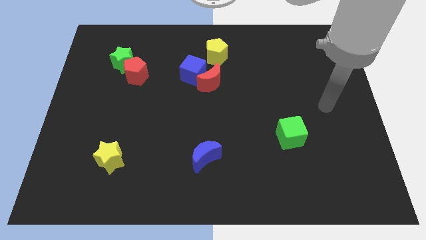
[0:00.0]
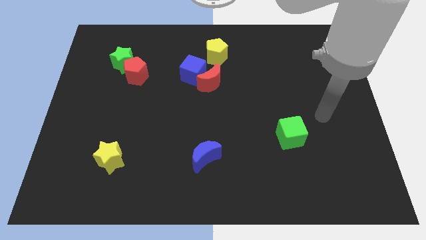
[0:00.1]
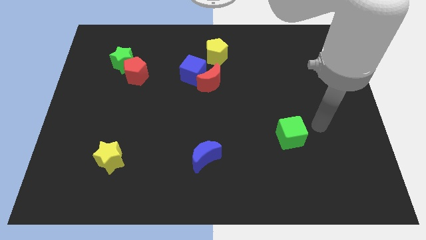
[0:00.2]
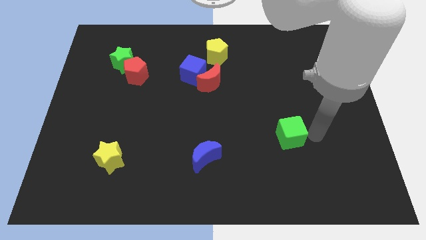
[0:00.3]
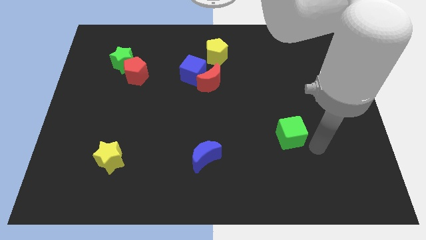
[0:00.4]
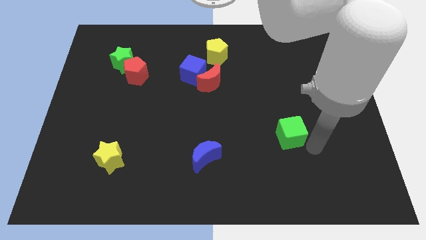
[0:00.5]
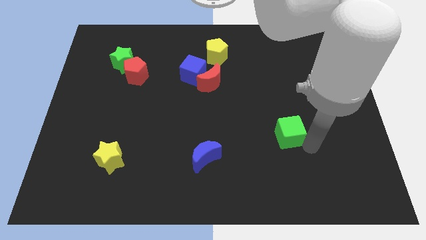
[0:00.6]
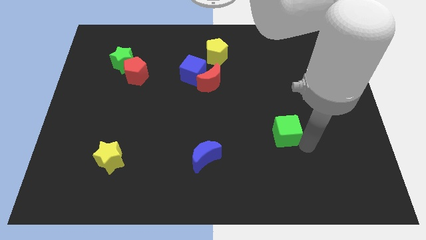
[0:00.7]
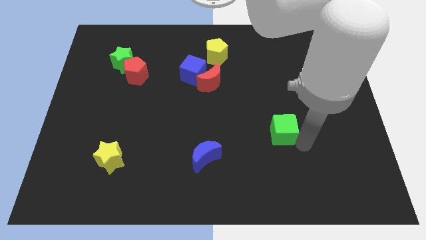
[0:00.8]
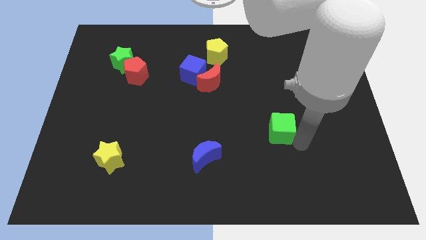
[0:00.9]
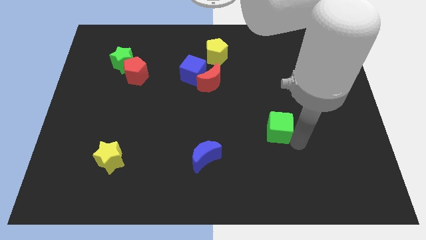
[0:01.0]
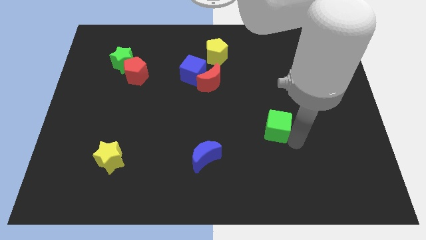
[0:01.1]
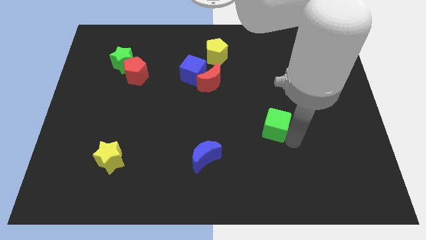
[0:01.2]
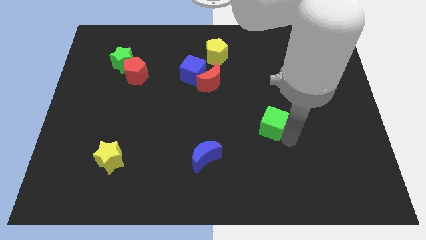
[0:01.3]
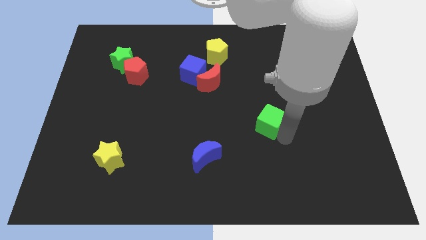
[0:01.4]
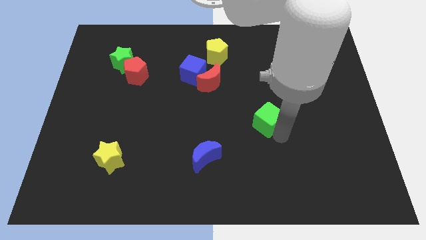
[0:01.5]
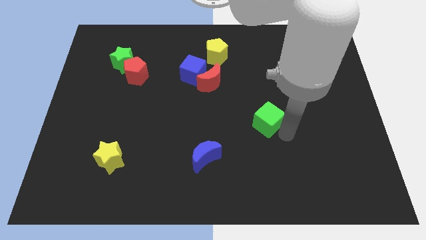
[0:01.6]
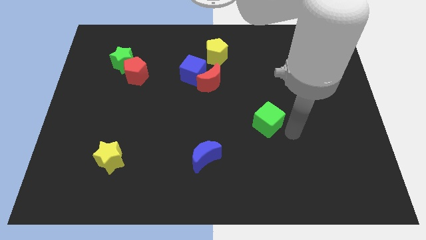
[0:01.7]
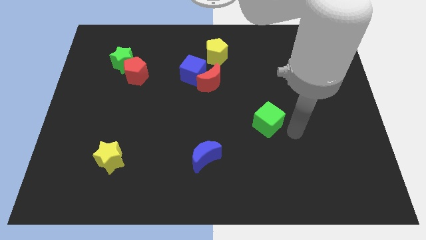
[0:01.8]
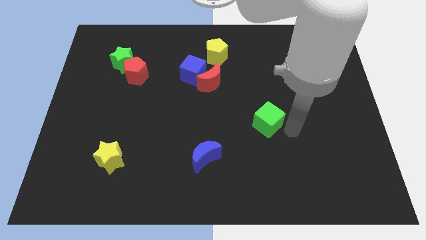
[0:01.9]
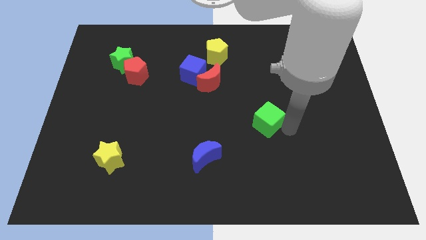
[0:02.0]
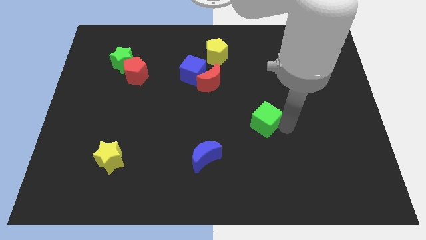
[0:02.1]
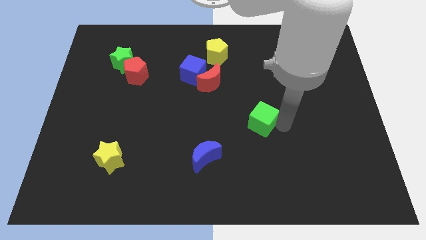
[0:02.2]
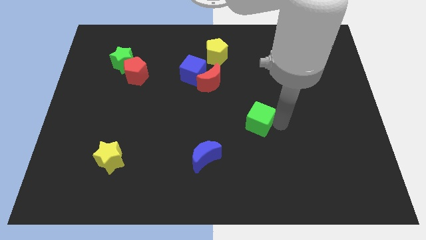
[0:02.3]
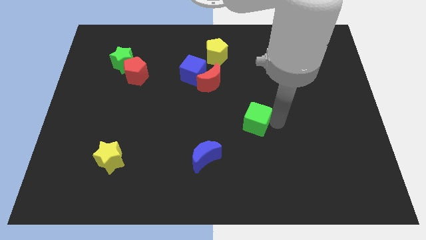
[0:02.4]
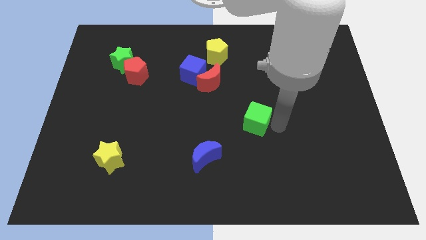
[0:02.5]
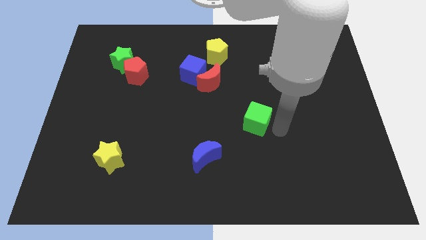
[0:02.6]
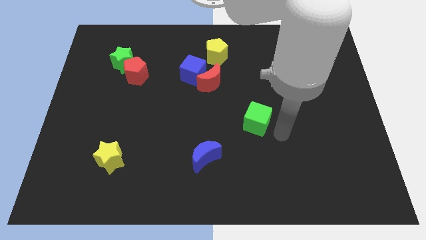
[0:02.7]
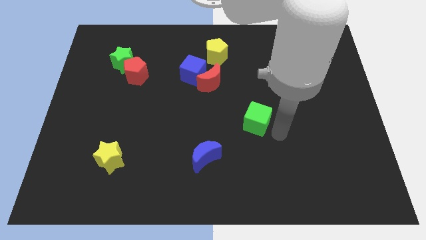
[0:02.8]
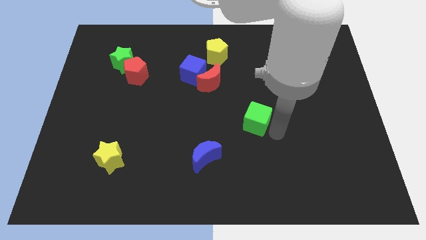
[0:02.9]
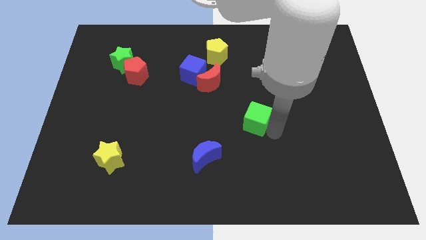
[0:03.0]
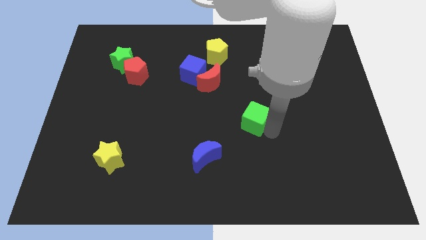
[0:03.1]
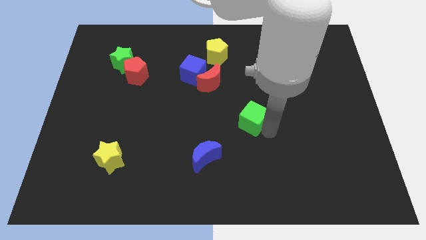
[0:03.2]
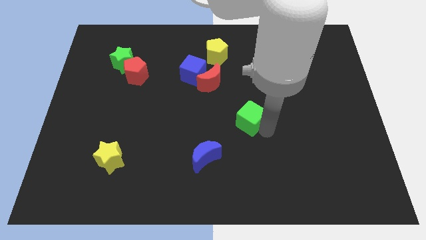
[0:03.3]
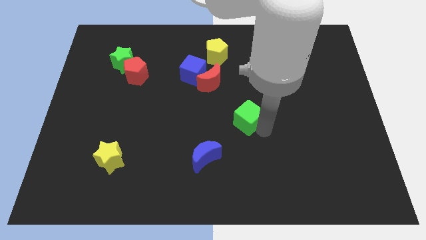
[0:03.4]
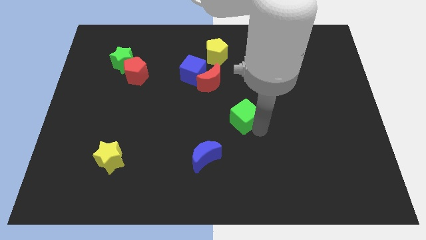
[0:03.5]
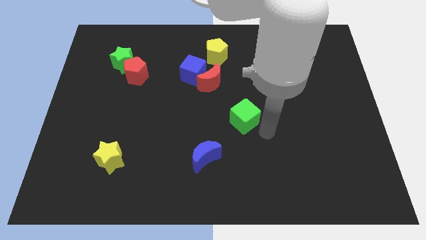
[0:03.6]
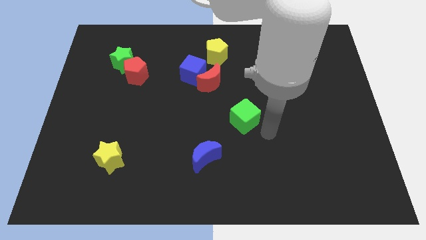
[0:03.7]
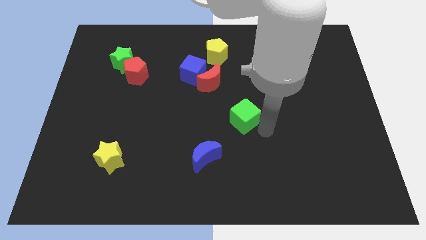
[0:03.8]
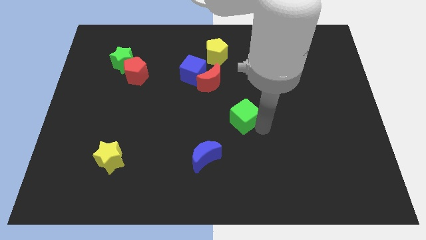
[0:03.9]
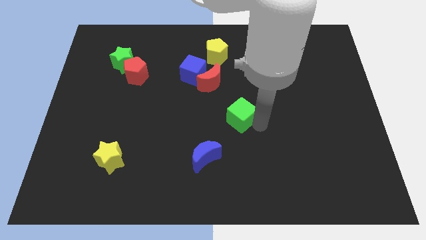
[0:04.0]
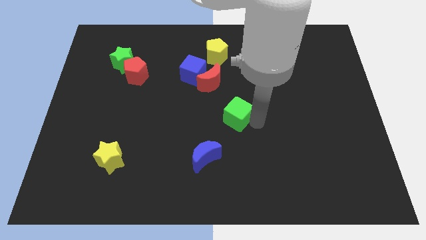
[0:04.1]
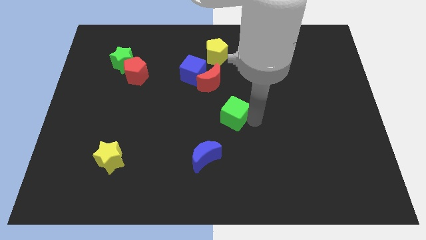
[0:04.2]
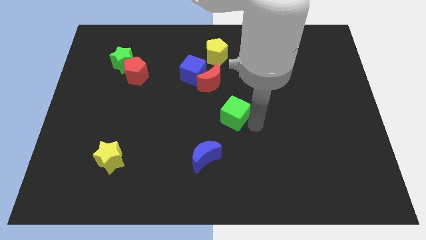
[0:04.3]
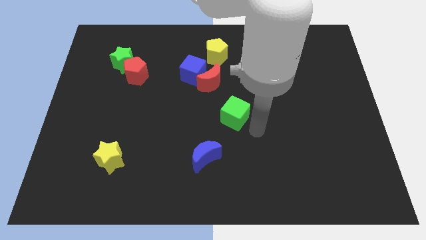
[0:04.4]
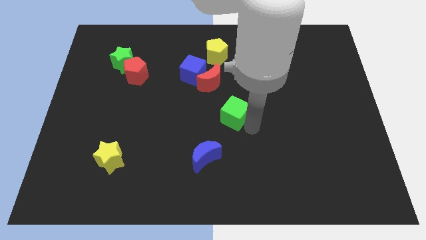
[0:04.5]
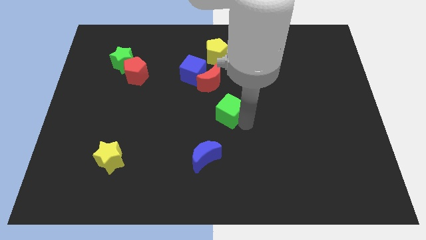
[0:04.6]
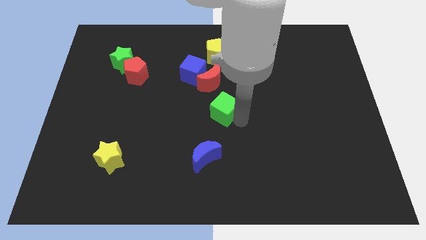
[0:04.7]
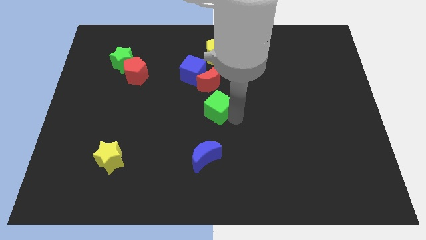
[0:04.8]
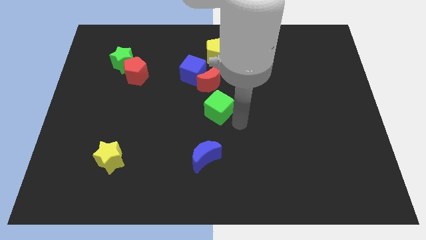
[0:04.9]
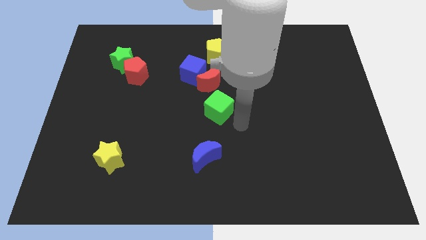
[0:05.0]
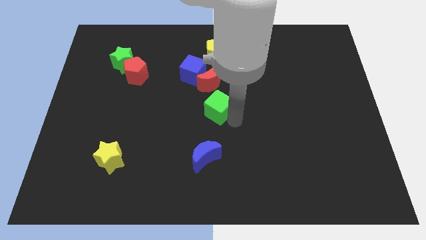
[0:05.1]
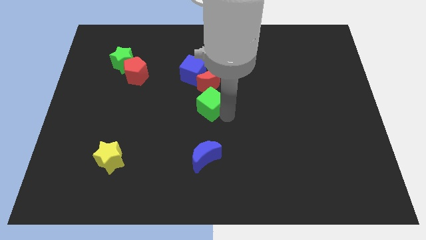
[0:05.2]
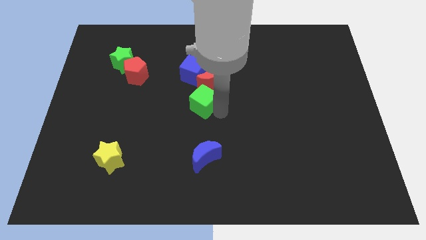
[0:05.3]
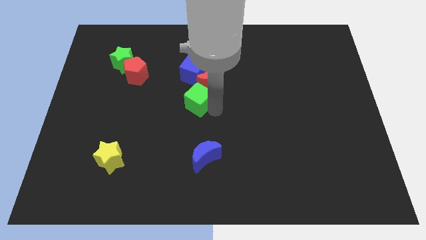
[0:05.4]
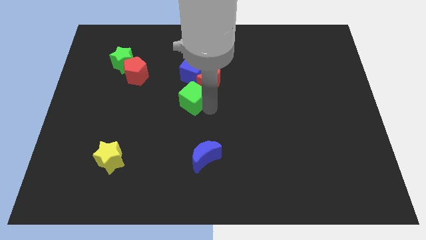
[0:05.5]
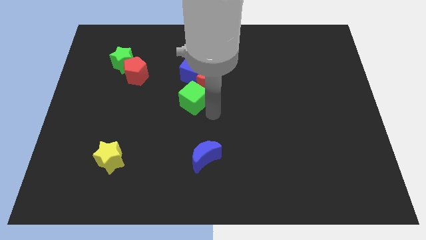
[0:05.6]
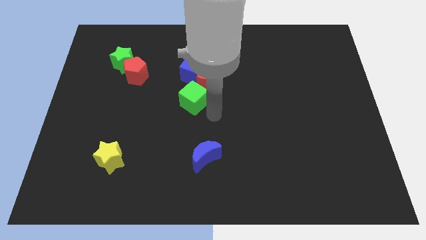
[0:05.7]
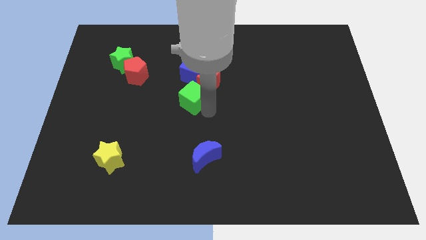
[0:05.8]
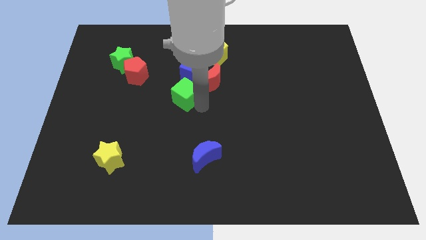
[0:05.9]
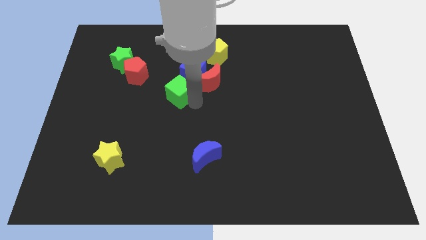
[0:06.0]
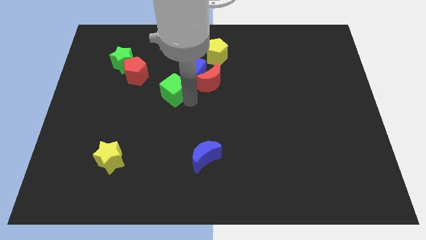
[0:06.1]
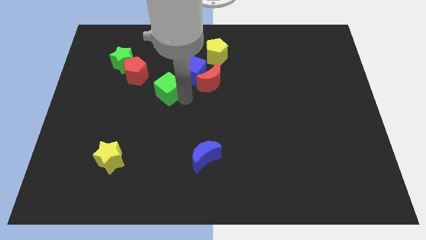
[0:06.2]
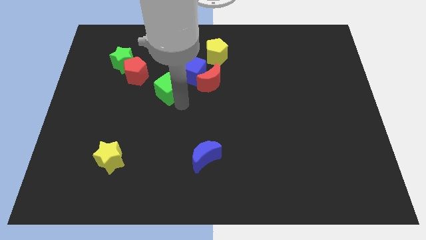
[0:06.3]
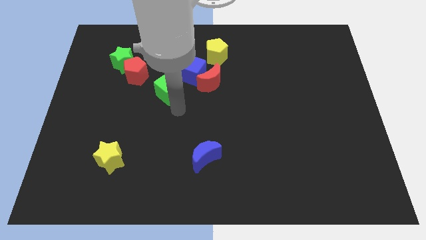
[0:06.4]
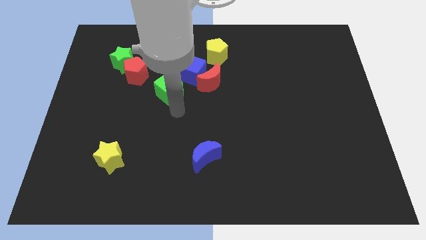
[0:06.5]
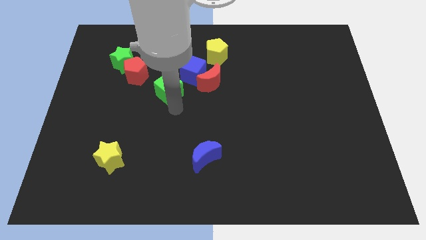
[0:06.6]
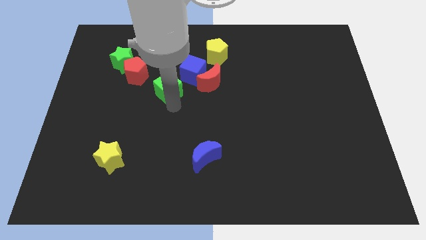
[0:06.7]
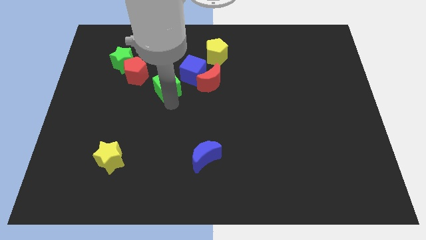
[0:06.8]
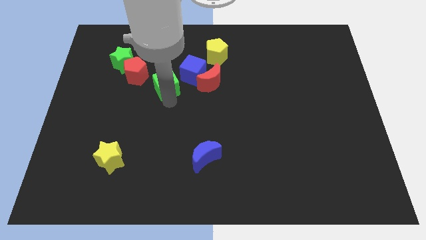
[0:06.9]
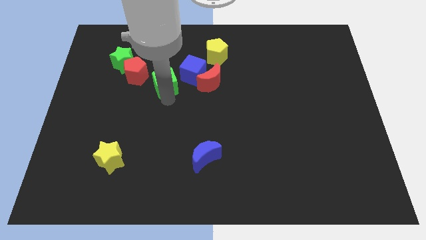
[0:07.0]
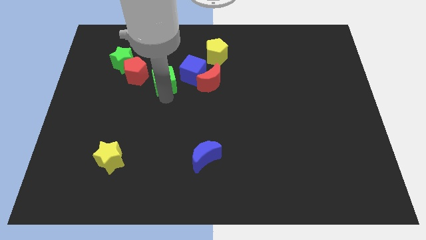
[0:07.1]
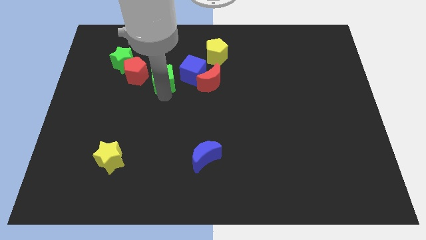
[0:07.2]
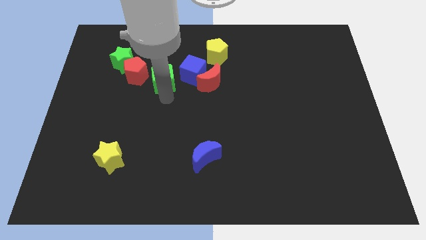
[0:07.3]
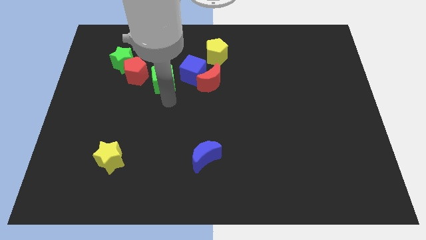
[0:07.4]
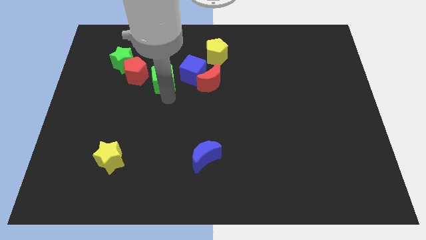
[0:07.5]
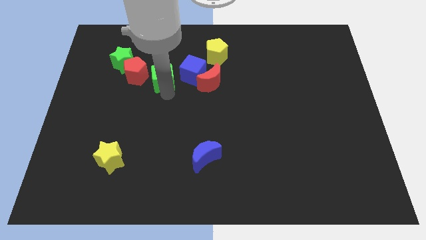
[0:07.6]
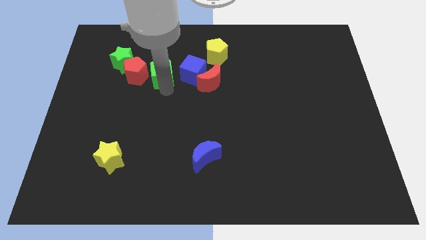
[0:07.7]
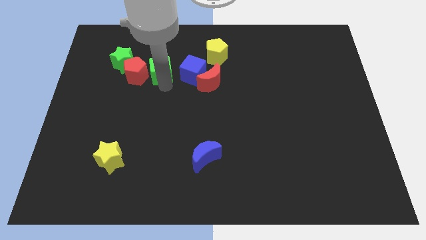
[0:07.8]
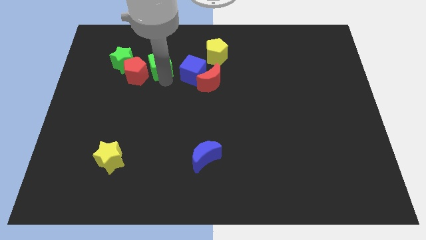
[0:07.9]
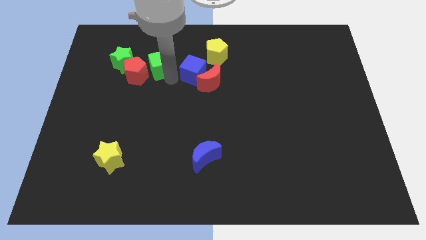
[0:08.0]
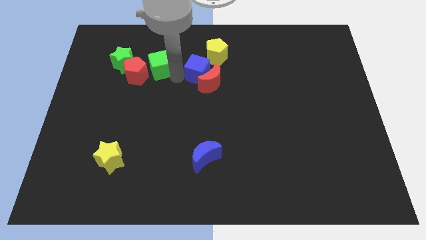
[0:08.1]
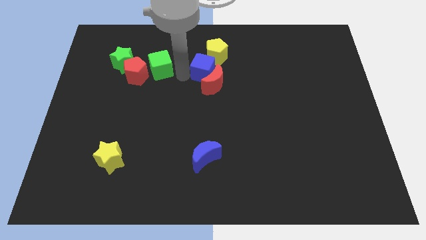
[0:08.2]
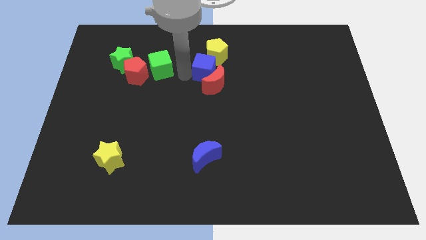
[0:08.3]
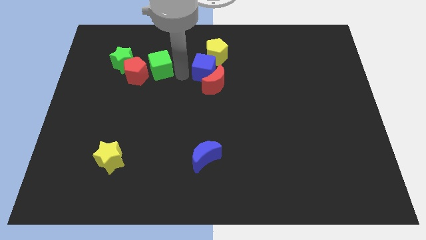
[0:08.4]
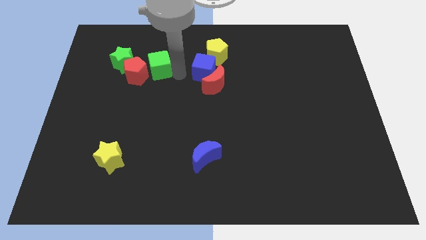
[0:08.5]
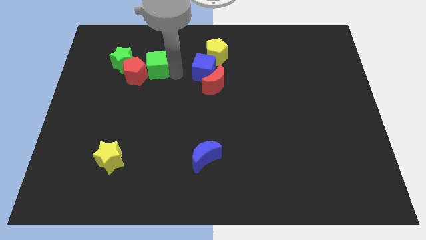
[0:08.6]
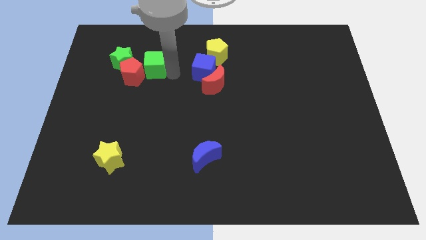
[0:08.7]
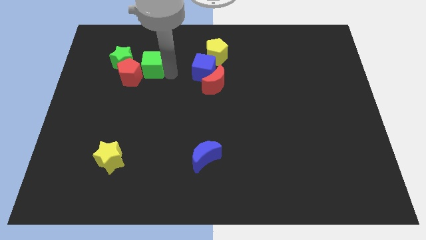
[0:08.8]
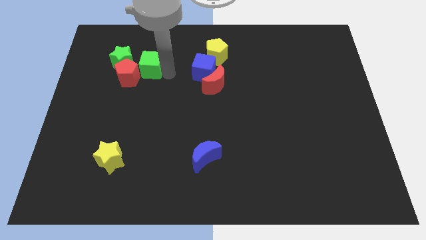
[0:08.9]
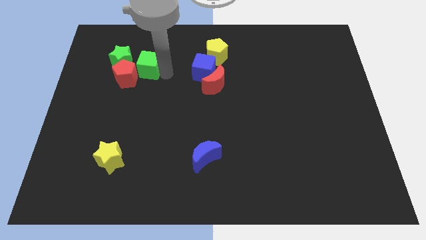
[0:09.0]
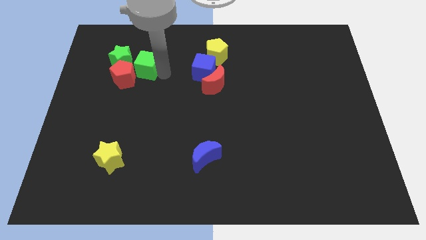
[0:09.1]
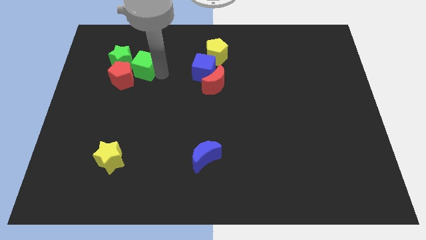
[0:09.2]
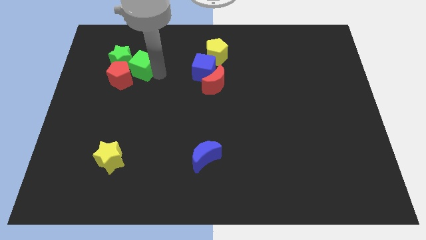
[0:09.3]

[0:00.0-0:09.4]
put the green cube towards the green star
